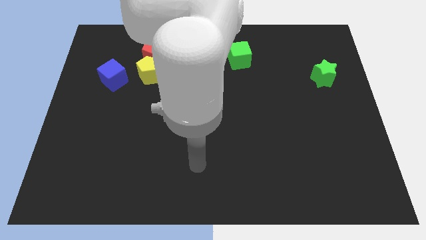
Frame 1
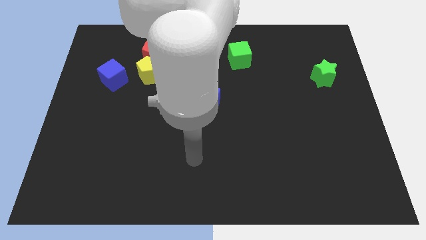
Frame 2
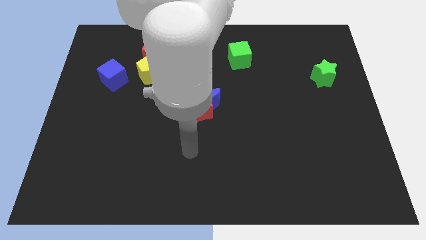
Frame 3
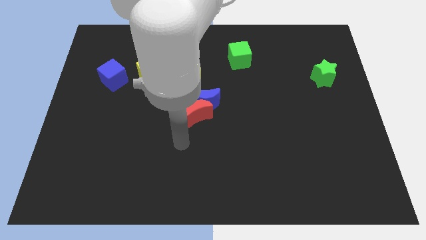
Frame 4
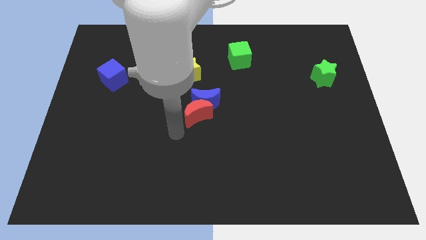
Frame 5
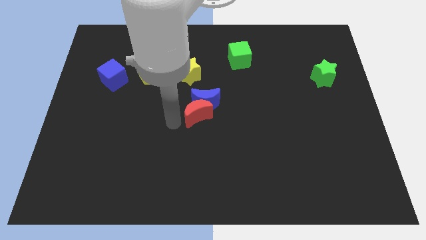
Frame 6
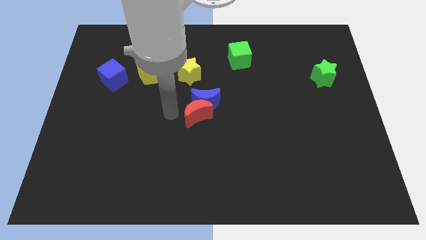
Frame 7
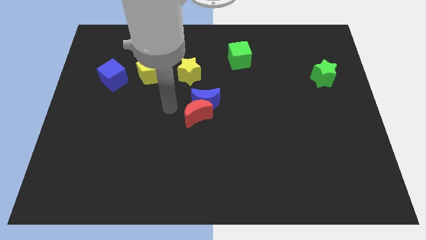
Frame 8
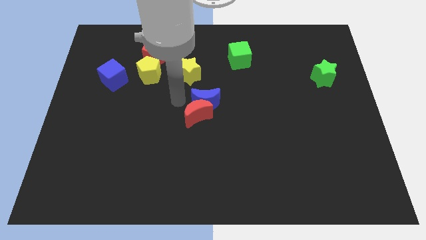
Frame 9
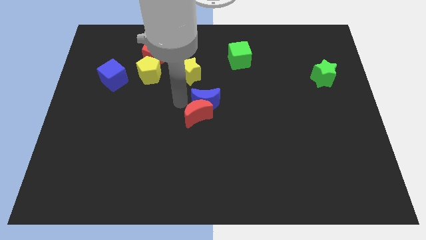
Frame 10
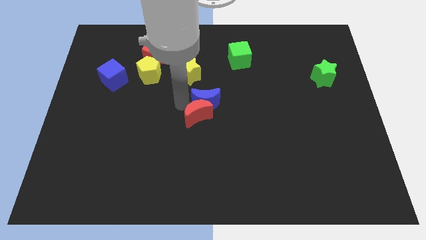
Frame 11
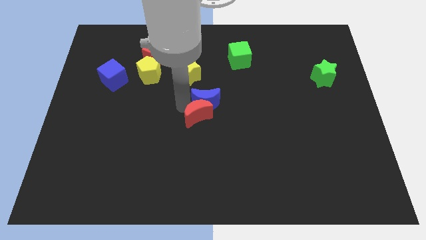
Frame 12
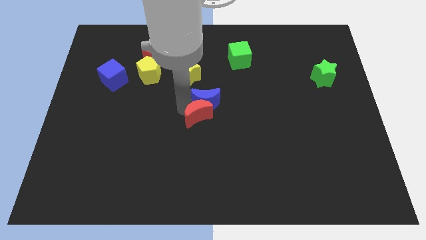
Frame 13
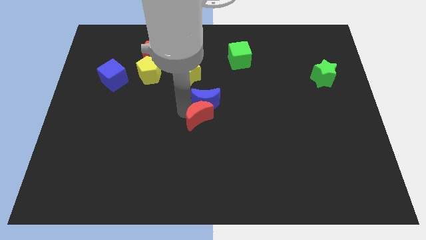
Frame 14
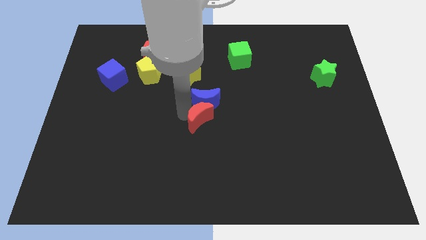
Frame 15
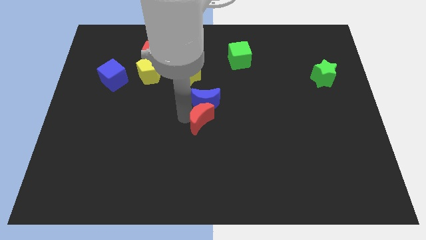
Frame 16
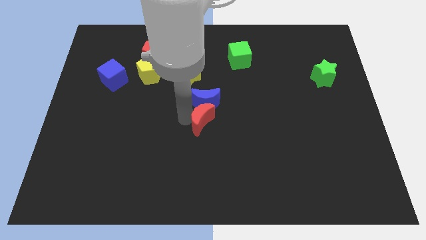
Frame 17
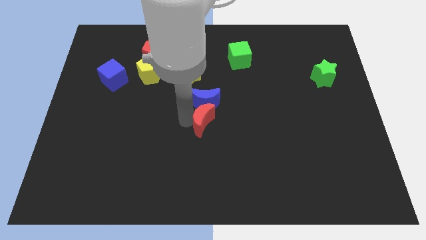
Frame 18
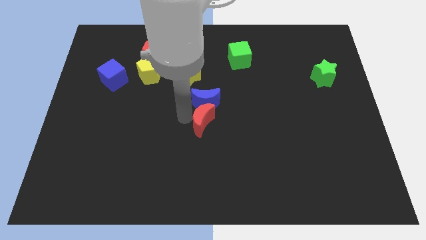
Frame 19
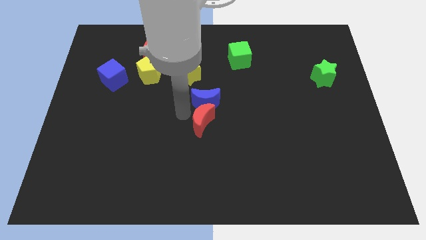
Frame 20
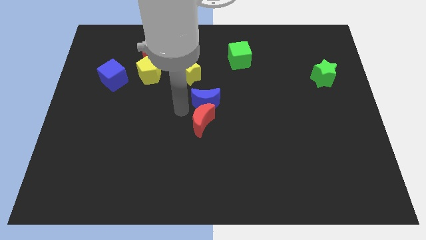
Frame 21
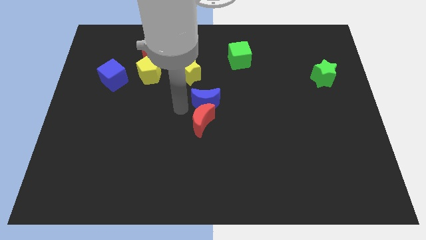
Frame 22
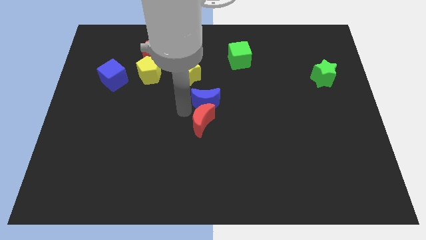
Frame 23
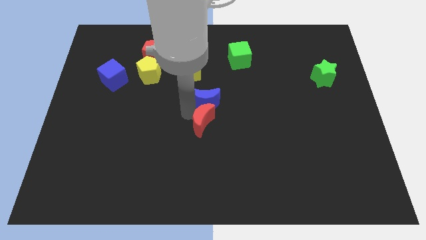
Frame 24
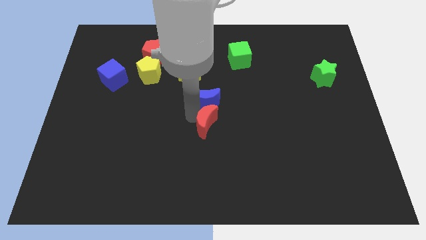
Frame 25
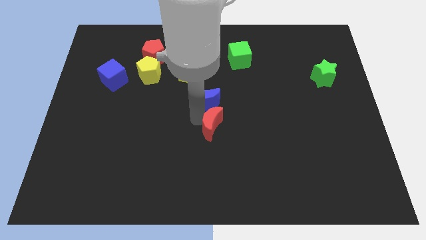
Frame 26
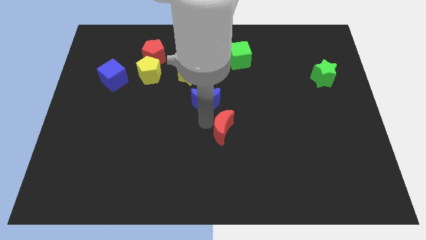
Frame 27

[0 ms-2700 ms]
push the red moon diagonally down and to the right a little

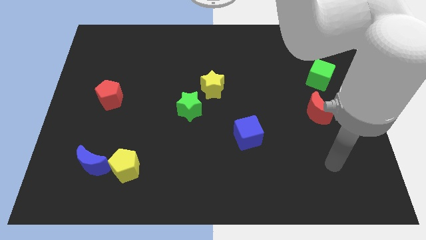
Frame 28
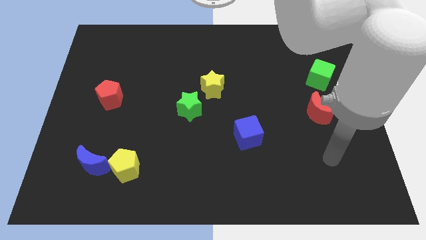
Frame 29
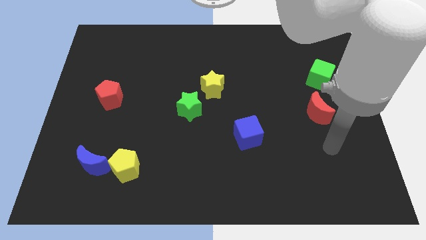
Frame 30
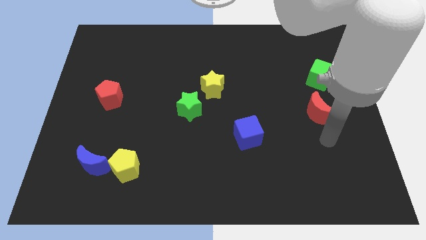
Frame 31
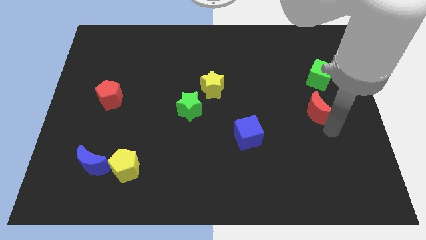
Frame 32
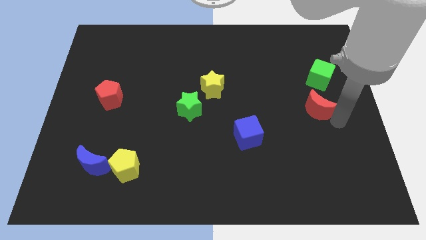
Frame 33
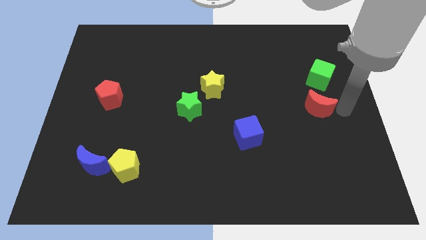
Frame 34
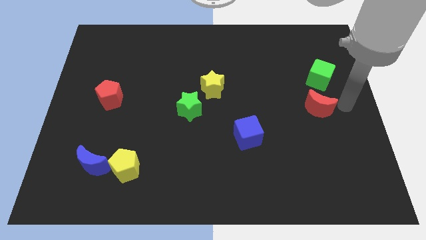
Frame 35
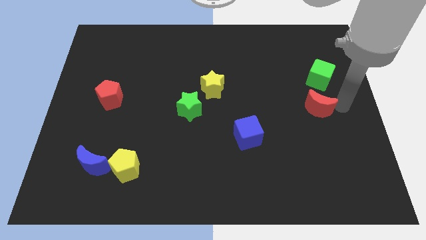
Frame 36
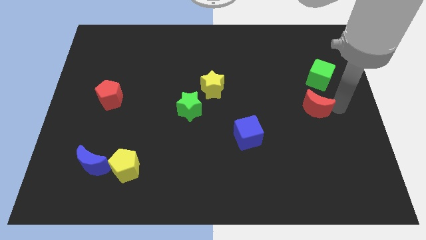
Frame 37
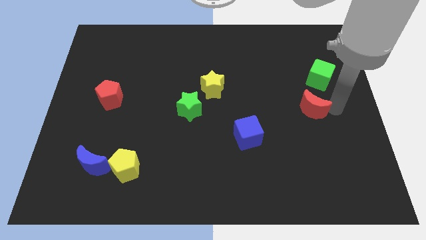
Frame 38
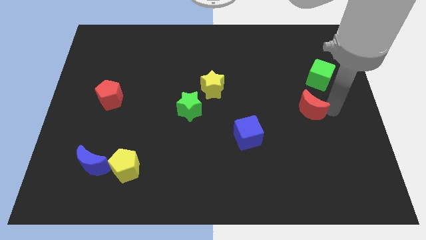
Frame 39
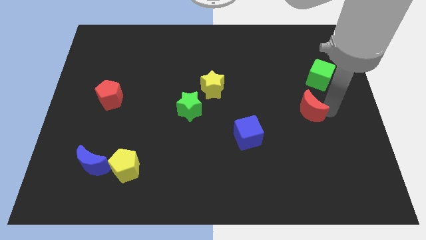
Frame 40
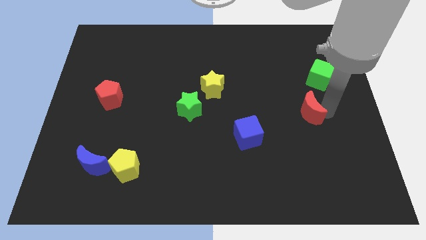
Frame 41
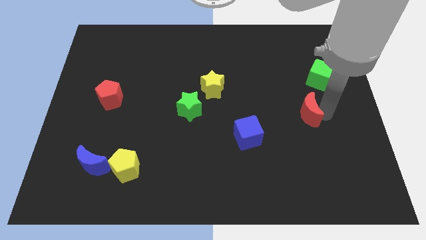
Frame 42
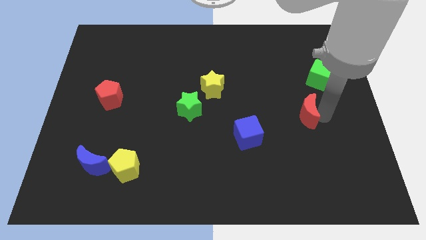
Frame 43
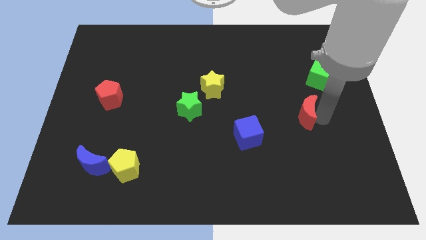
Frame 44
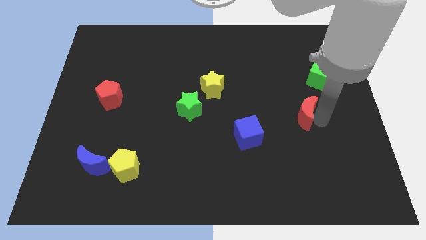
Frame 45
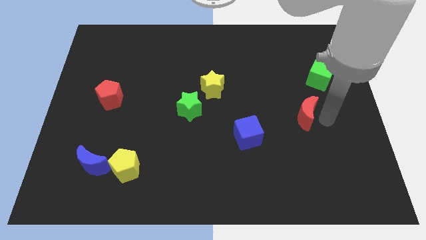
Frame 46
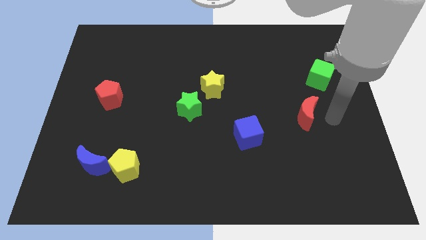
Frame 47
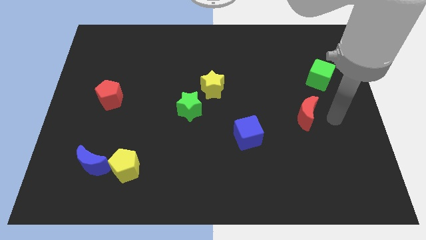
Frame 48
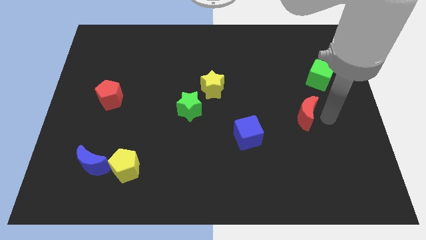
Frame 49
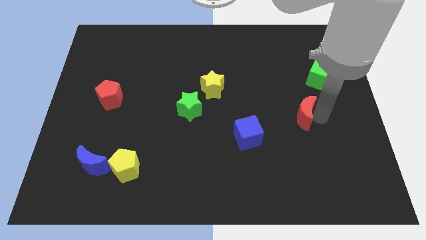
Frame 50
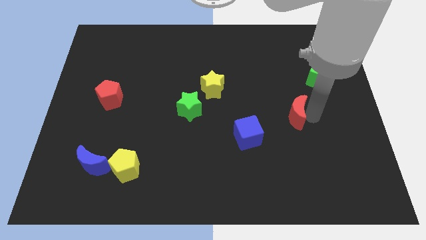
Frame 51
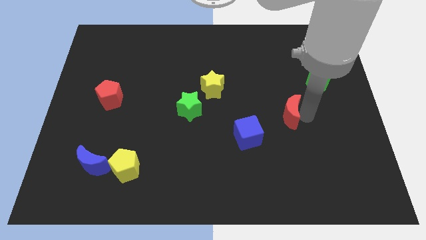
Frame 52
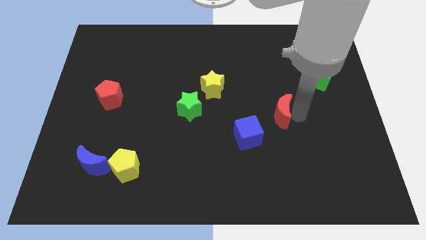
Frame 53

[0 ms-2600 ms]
push the red moon to the left slightly

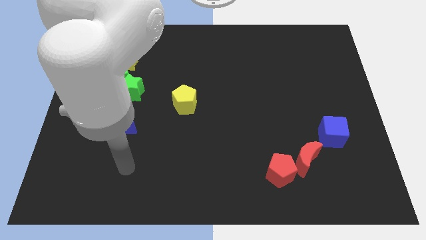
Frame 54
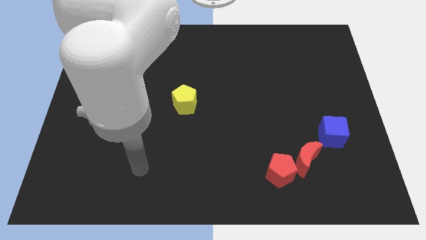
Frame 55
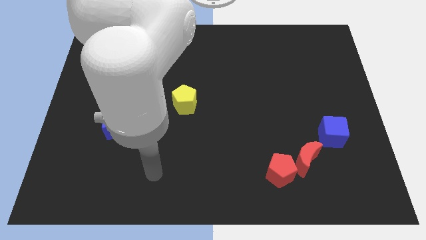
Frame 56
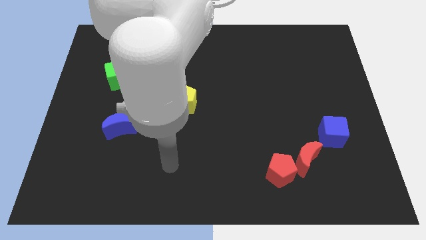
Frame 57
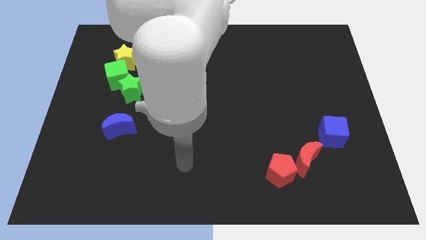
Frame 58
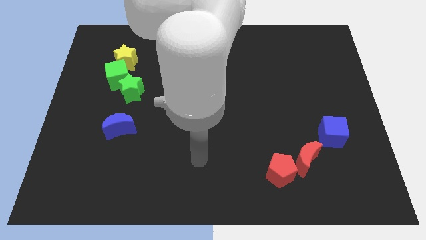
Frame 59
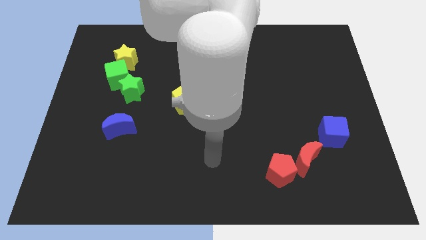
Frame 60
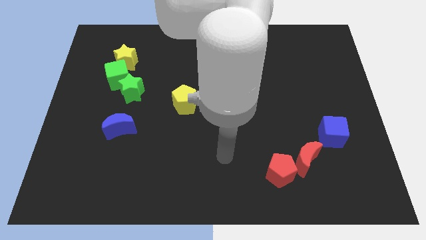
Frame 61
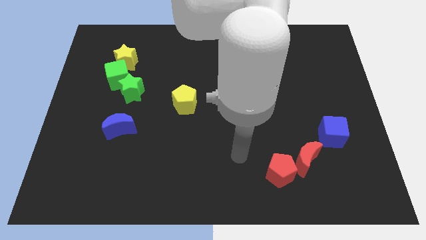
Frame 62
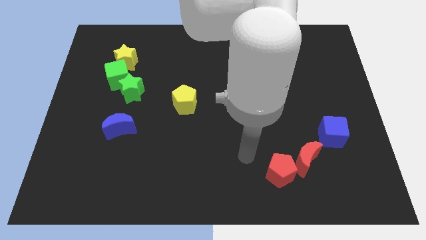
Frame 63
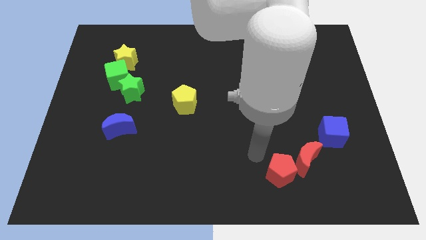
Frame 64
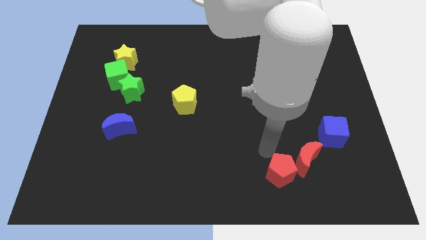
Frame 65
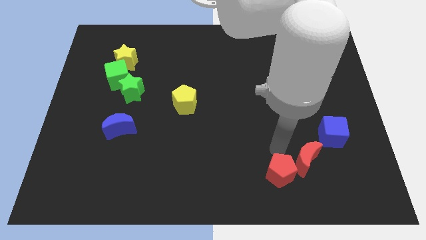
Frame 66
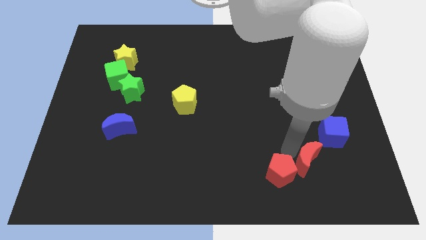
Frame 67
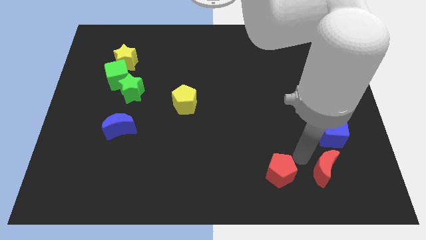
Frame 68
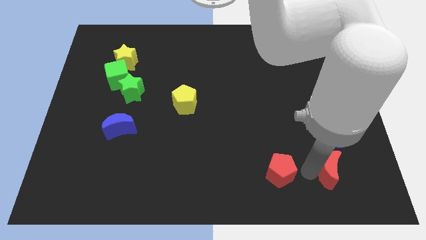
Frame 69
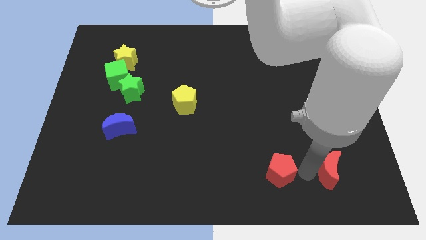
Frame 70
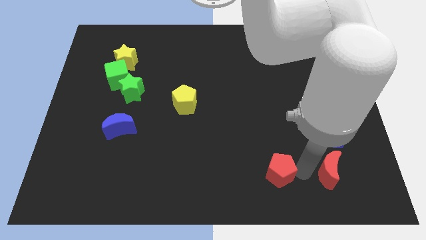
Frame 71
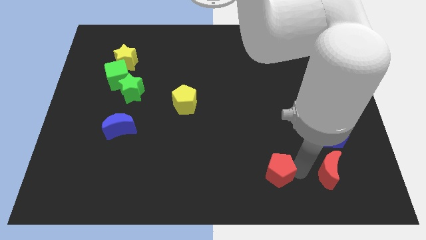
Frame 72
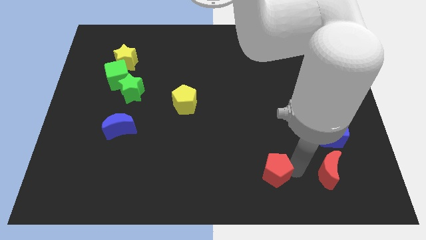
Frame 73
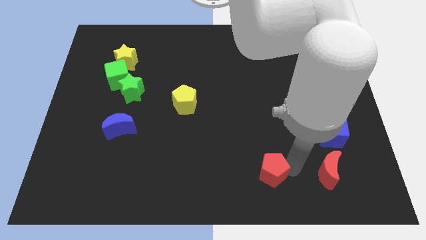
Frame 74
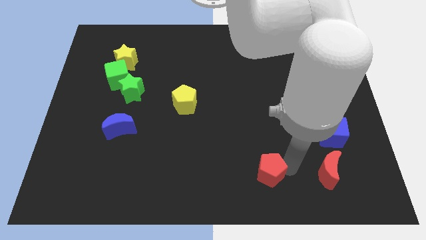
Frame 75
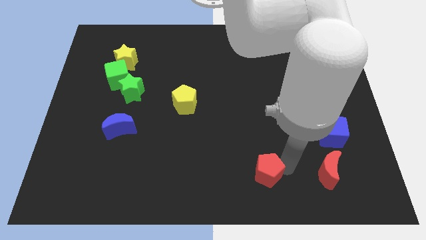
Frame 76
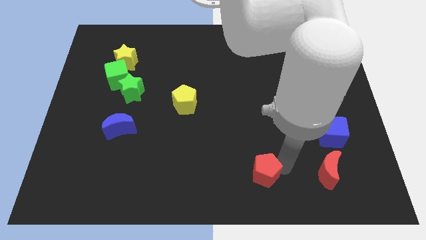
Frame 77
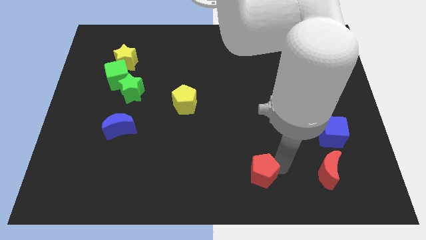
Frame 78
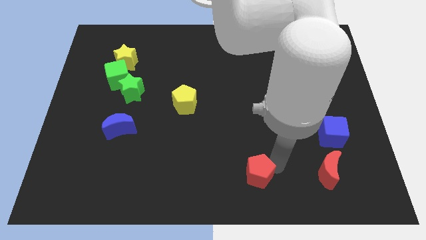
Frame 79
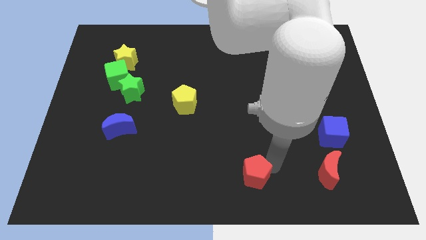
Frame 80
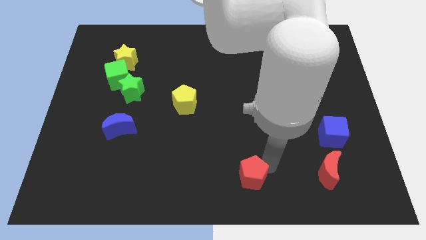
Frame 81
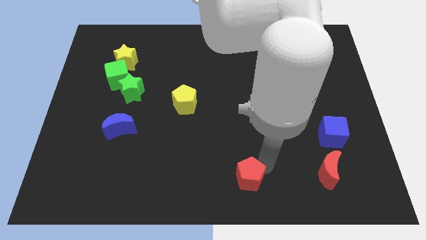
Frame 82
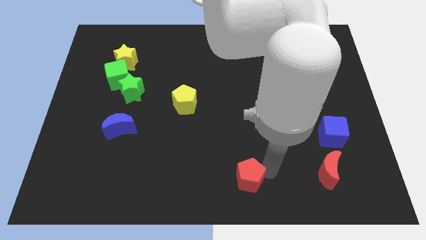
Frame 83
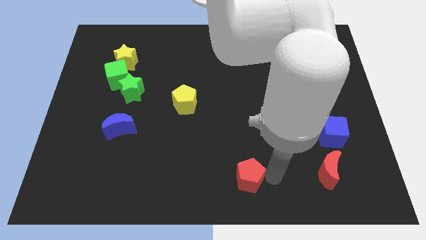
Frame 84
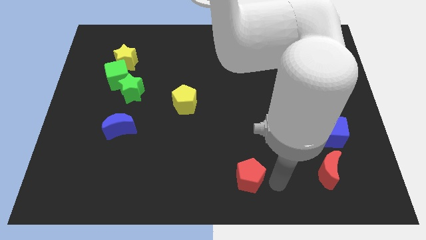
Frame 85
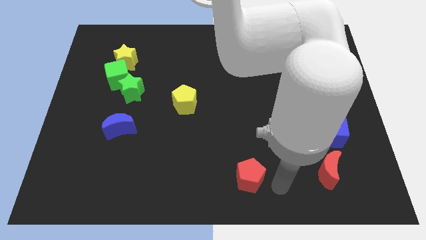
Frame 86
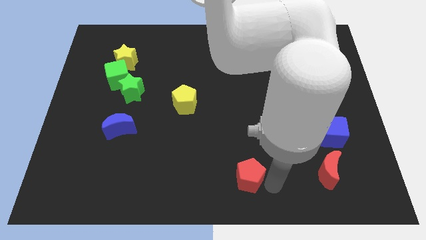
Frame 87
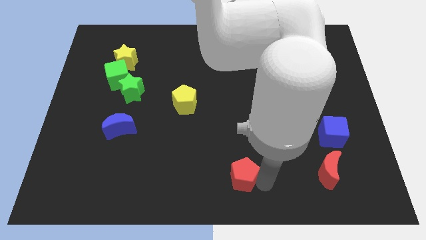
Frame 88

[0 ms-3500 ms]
move the red pentagon left a little bit
